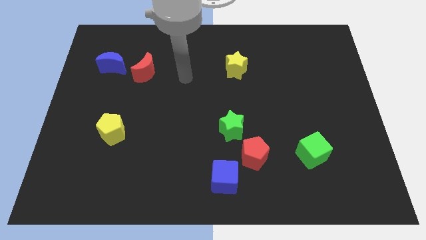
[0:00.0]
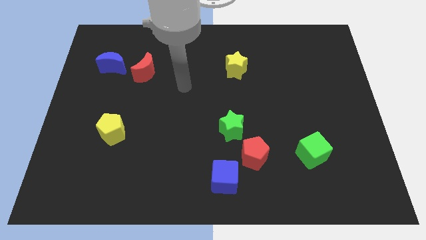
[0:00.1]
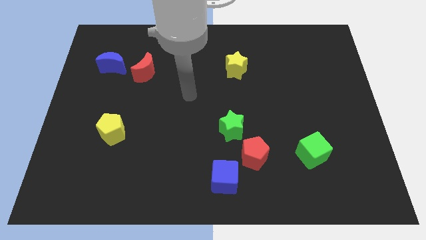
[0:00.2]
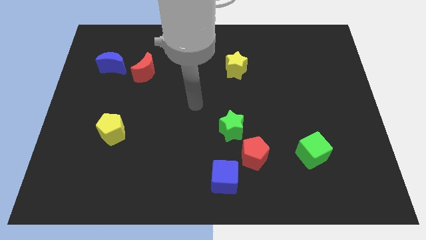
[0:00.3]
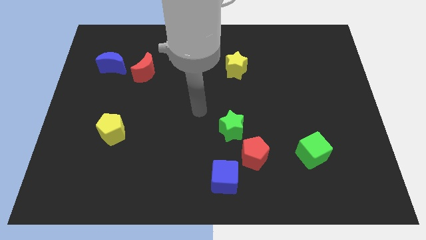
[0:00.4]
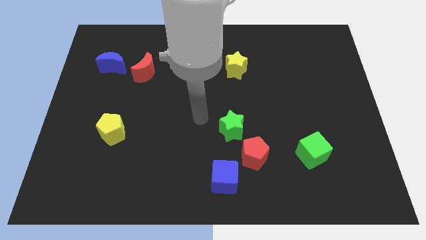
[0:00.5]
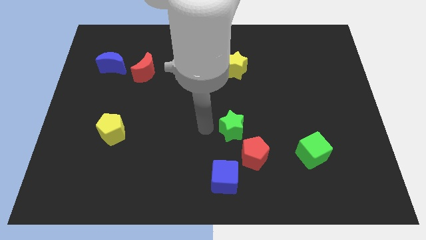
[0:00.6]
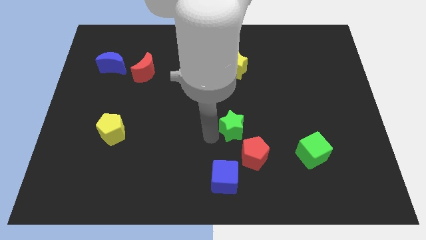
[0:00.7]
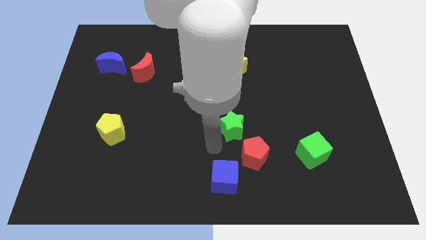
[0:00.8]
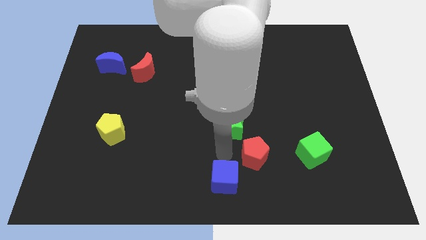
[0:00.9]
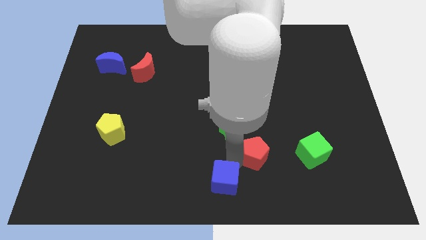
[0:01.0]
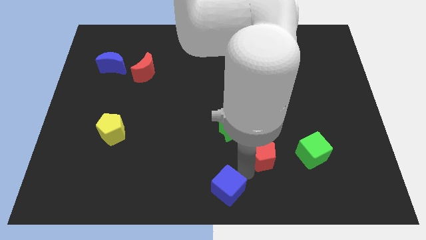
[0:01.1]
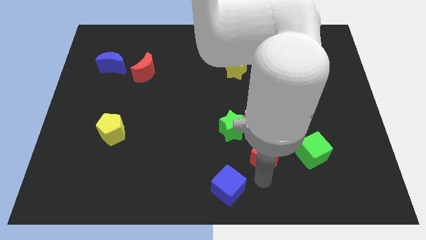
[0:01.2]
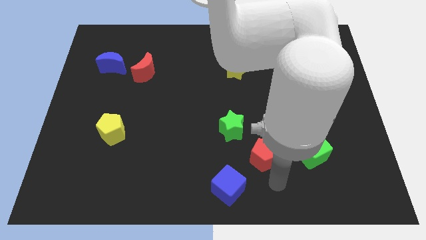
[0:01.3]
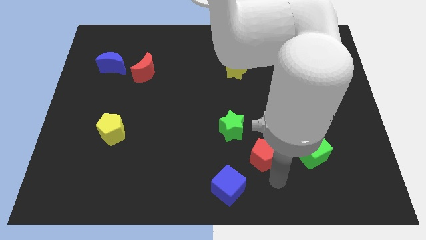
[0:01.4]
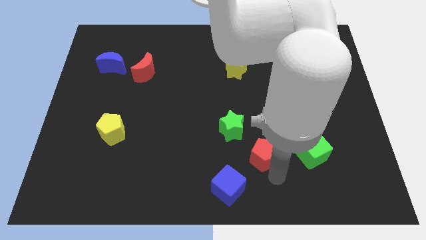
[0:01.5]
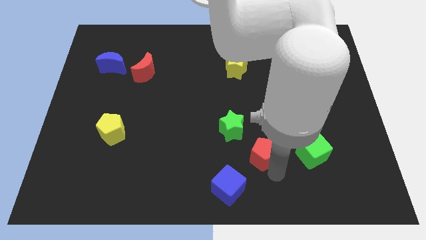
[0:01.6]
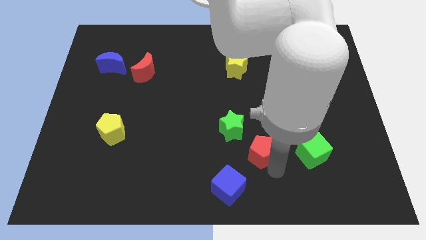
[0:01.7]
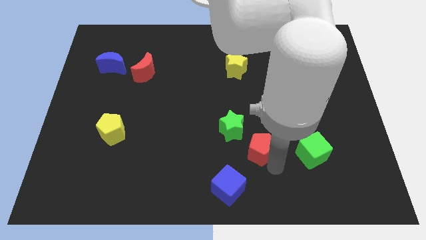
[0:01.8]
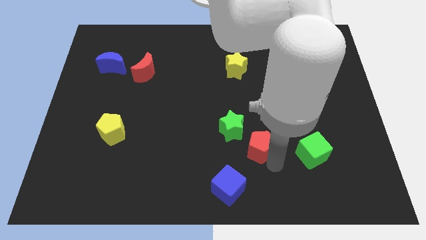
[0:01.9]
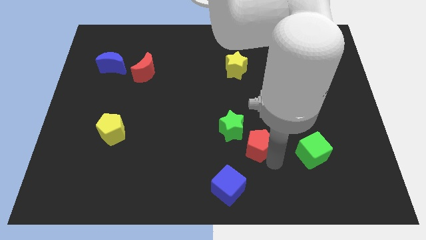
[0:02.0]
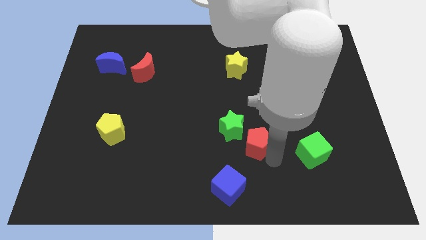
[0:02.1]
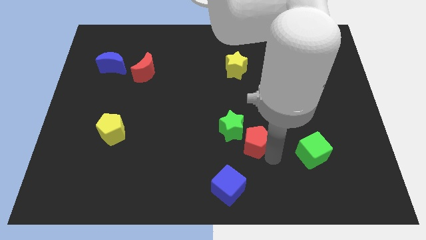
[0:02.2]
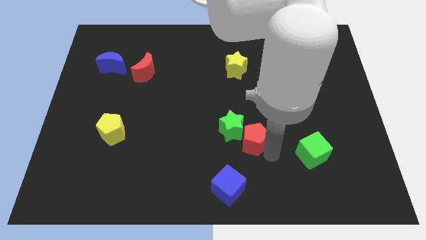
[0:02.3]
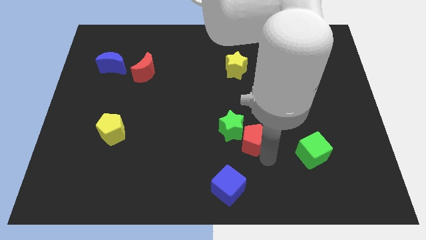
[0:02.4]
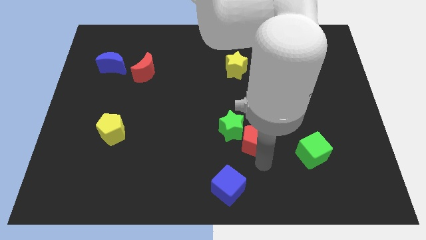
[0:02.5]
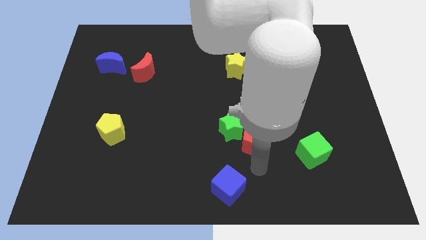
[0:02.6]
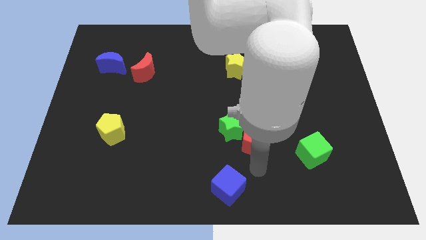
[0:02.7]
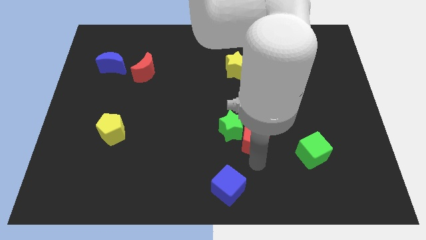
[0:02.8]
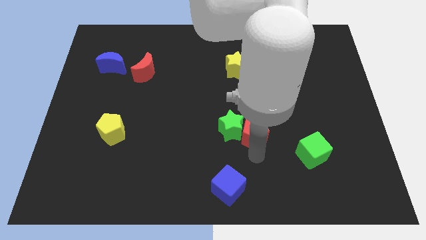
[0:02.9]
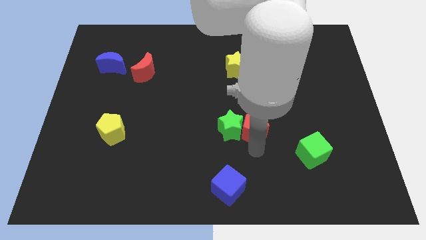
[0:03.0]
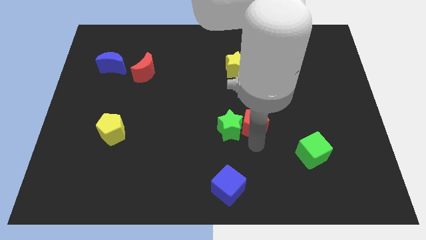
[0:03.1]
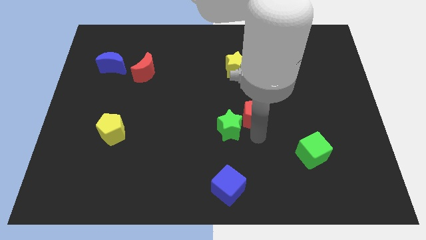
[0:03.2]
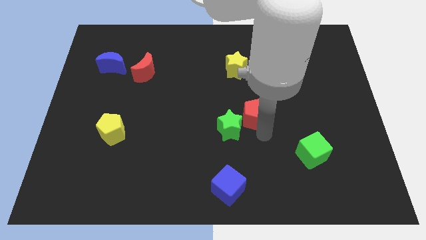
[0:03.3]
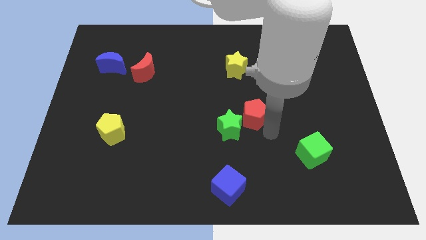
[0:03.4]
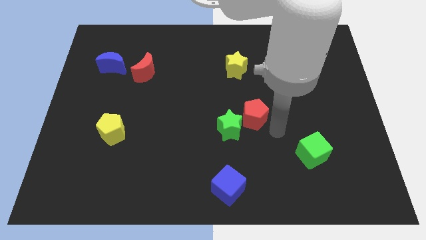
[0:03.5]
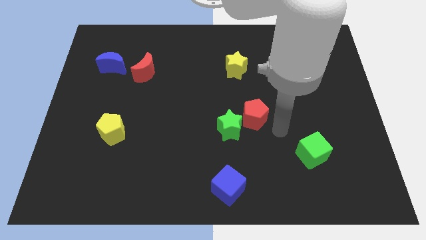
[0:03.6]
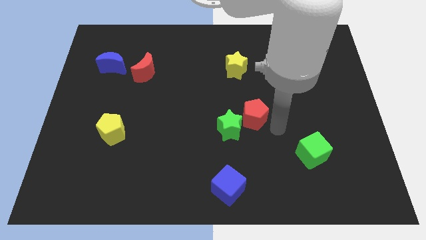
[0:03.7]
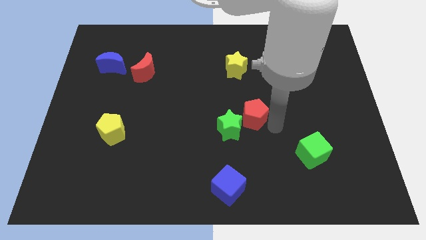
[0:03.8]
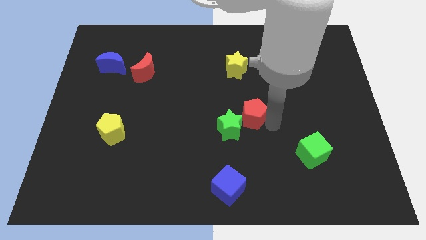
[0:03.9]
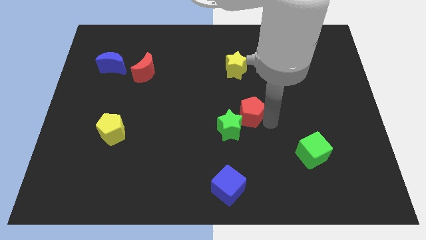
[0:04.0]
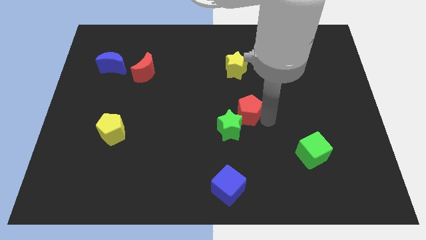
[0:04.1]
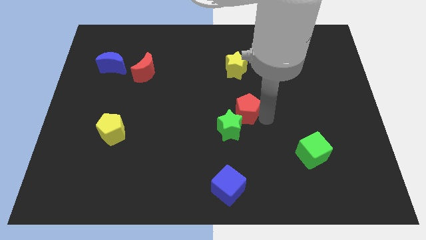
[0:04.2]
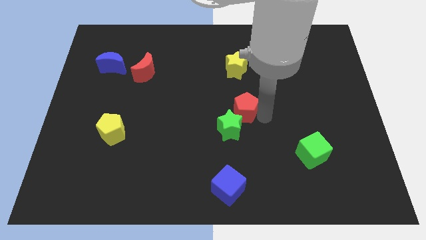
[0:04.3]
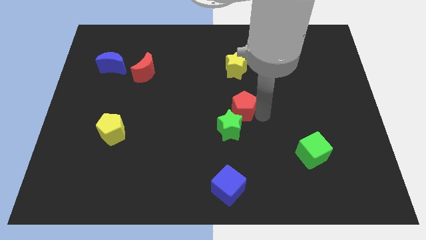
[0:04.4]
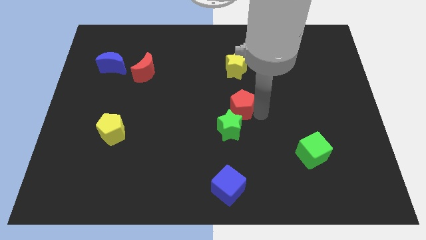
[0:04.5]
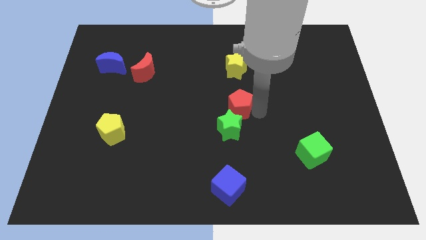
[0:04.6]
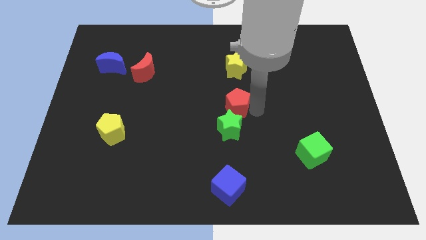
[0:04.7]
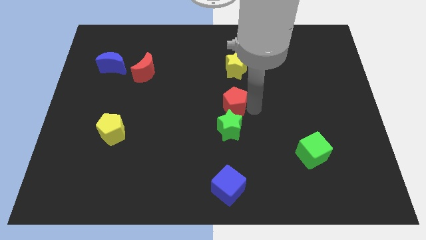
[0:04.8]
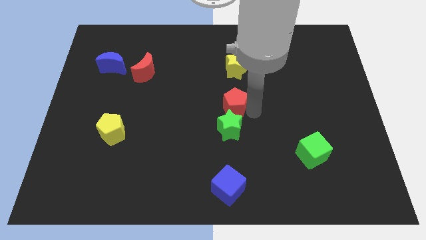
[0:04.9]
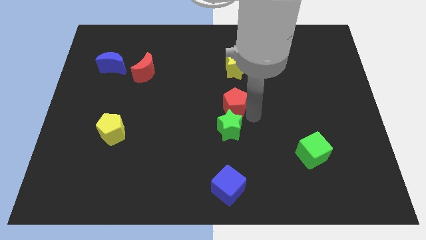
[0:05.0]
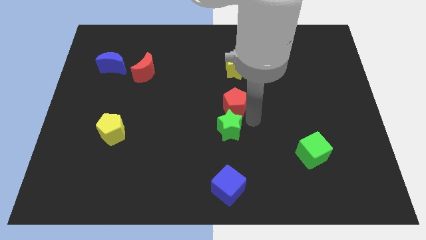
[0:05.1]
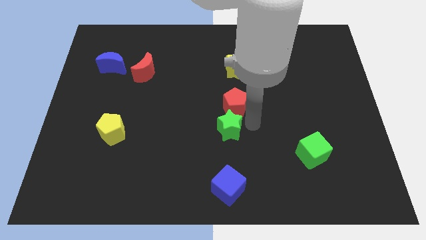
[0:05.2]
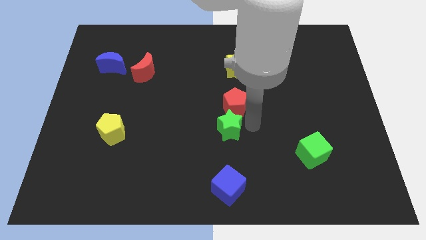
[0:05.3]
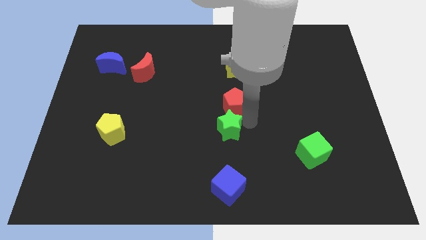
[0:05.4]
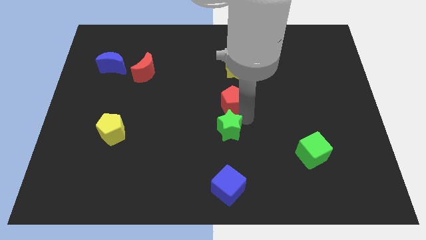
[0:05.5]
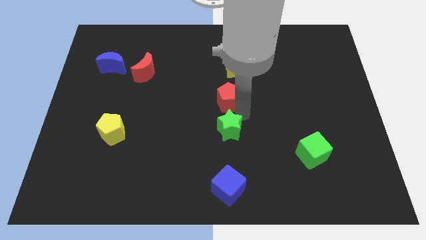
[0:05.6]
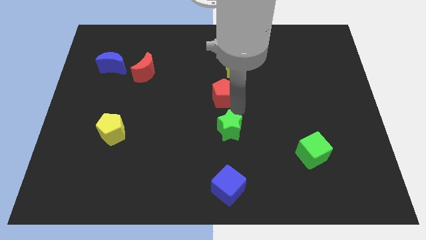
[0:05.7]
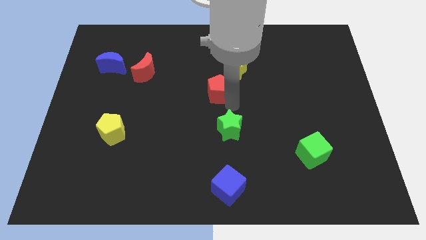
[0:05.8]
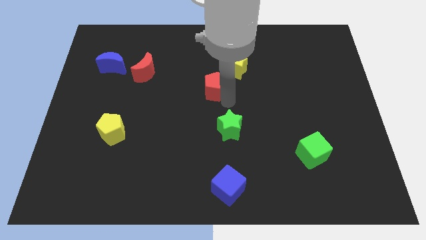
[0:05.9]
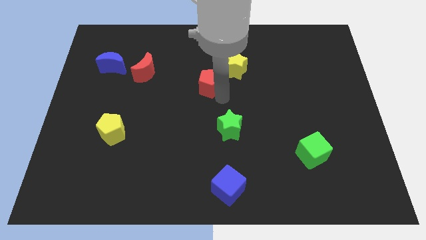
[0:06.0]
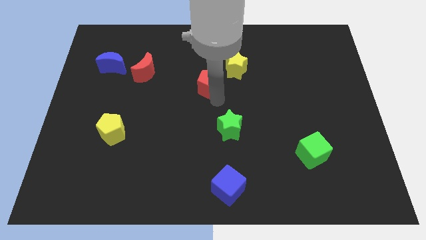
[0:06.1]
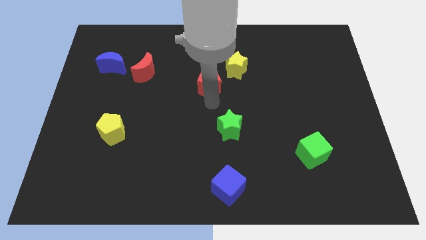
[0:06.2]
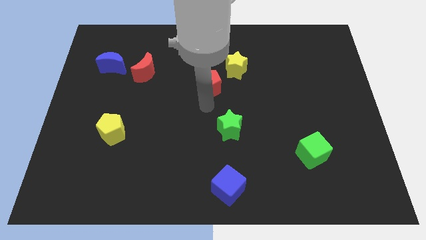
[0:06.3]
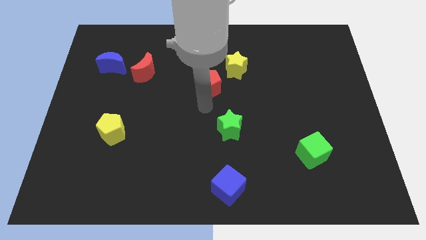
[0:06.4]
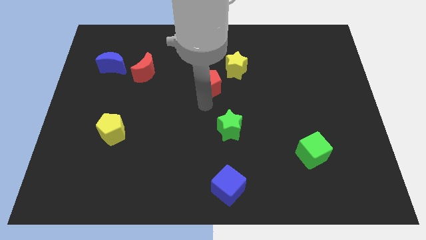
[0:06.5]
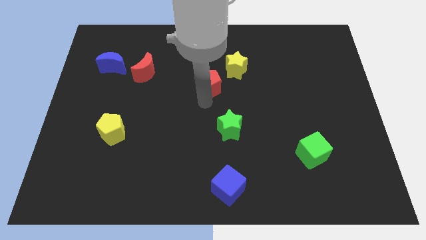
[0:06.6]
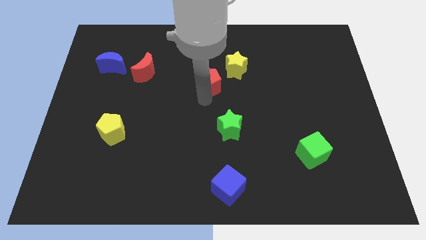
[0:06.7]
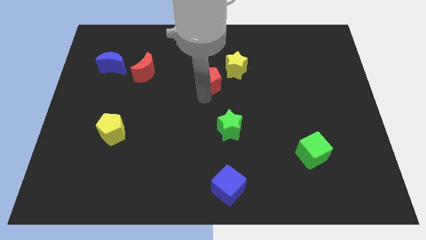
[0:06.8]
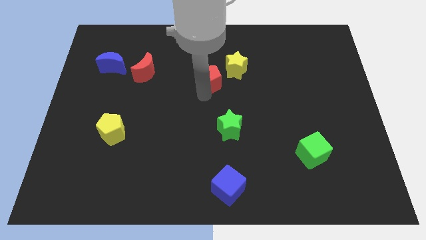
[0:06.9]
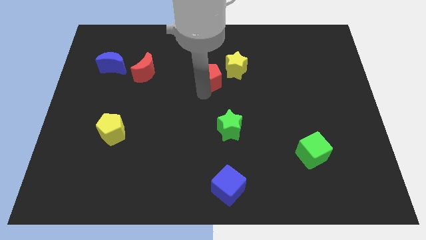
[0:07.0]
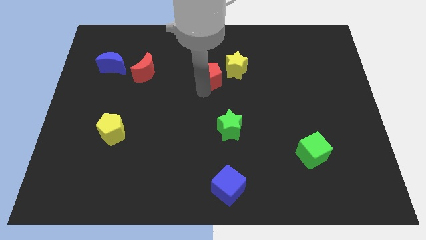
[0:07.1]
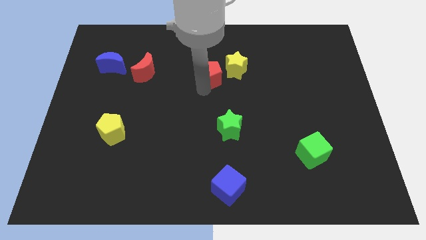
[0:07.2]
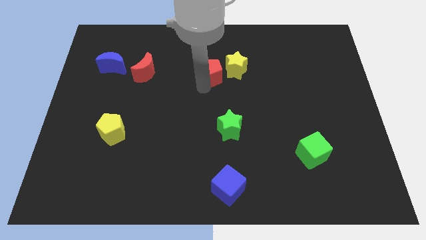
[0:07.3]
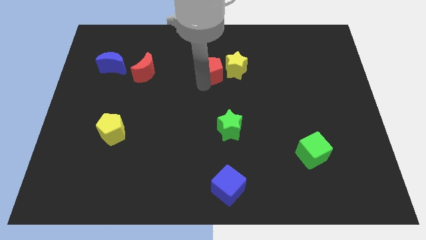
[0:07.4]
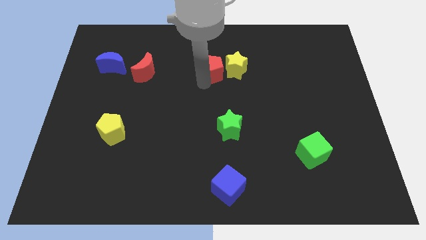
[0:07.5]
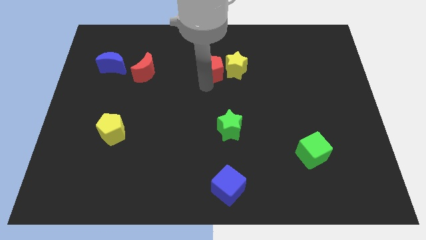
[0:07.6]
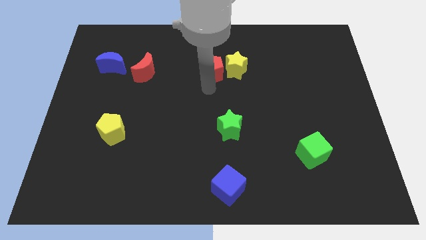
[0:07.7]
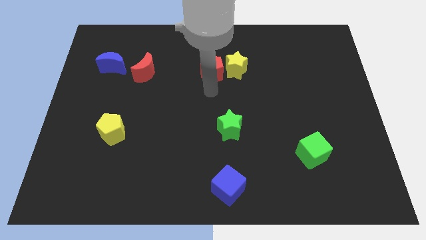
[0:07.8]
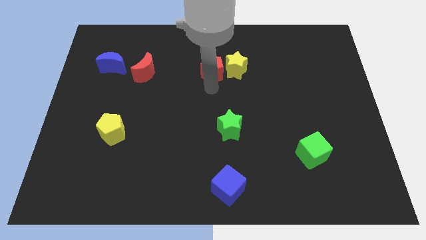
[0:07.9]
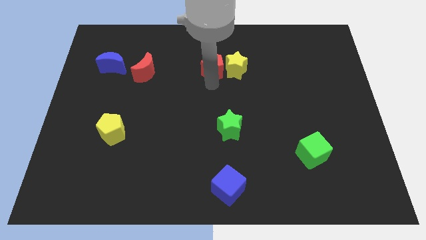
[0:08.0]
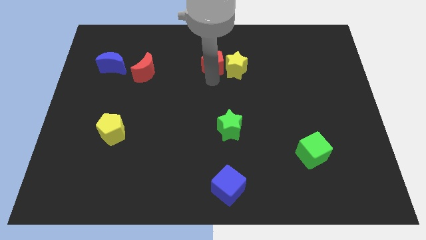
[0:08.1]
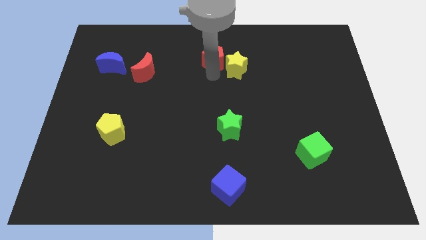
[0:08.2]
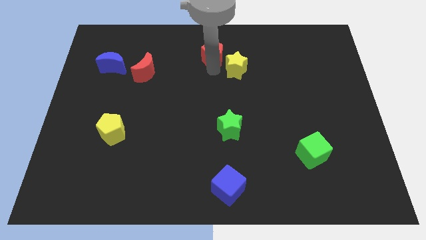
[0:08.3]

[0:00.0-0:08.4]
move the red pentagon to the towards your base
